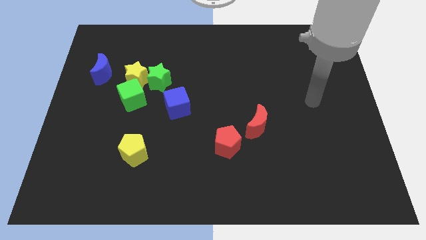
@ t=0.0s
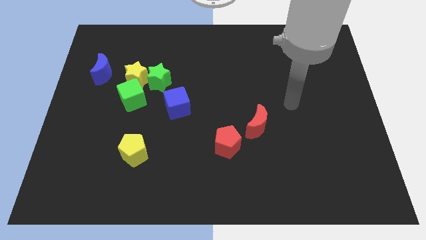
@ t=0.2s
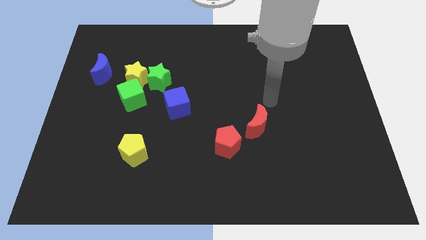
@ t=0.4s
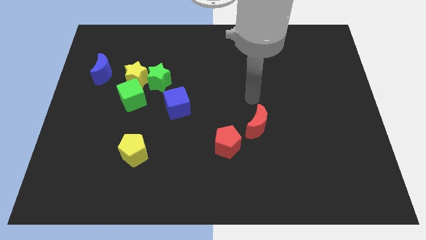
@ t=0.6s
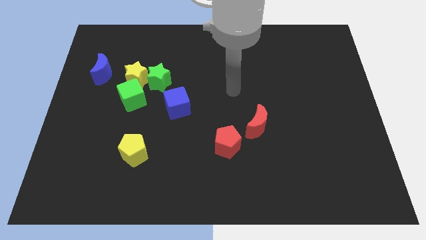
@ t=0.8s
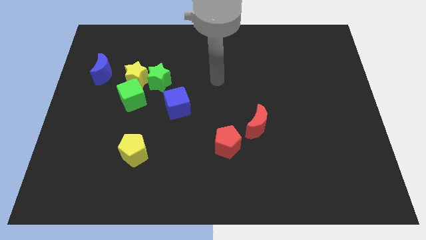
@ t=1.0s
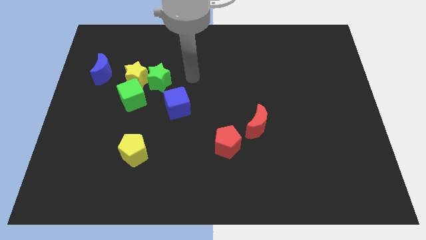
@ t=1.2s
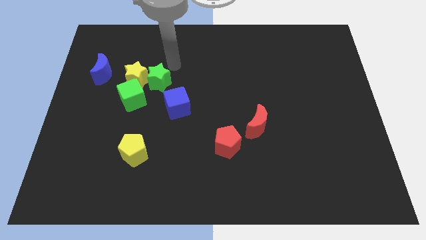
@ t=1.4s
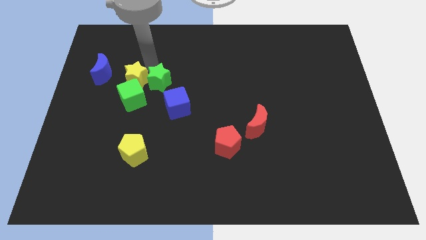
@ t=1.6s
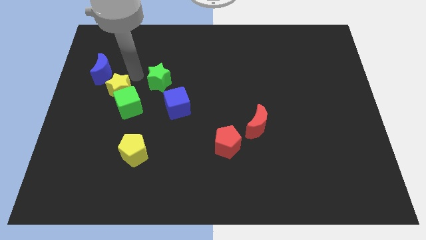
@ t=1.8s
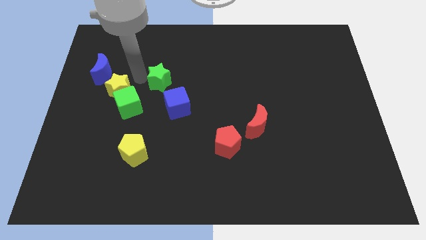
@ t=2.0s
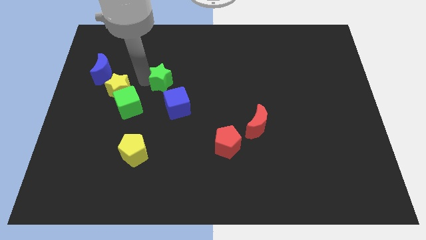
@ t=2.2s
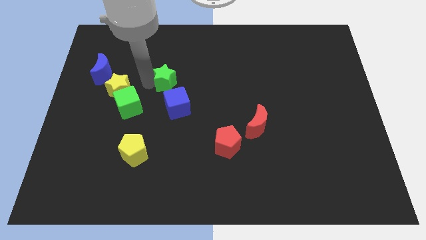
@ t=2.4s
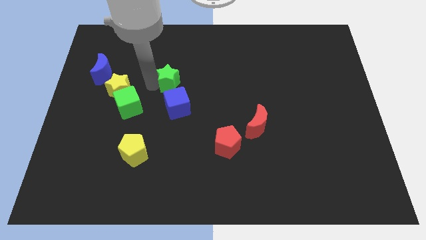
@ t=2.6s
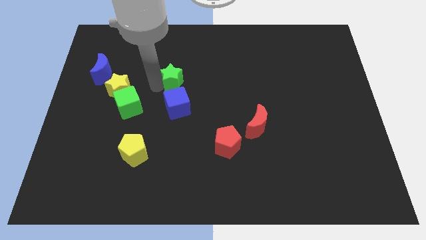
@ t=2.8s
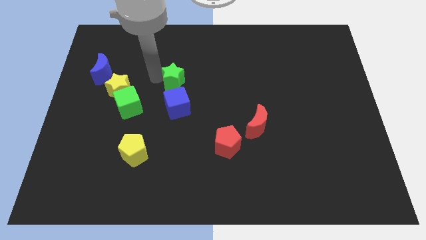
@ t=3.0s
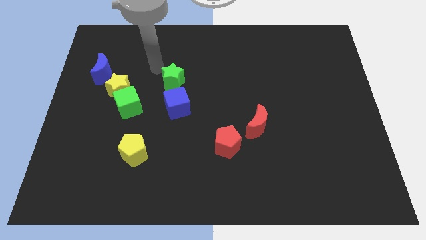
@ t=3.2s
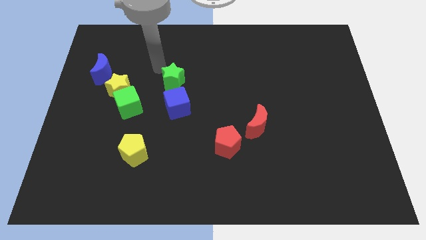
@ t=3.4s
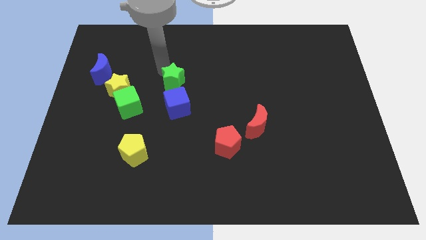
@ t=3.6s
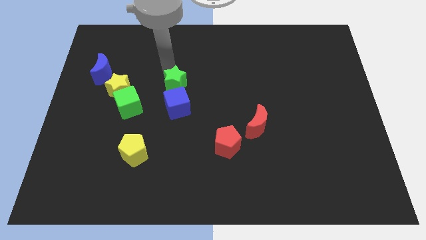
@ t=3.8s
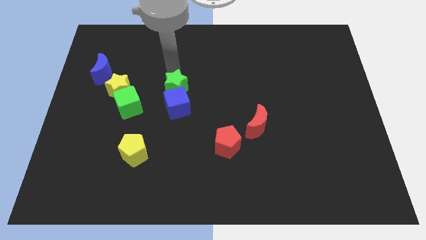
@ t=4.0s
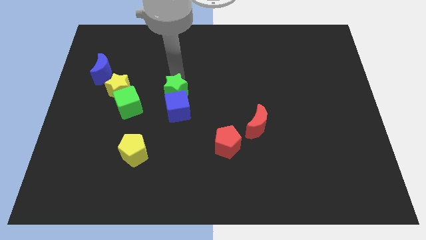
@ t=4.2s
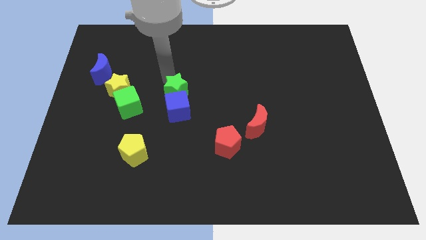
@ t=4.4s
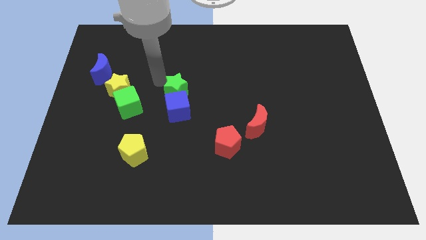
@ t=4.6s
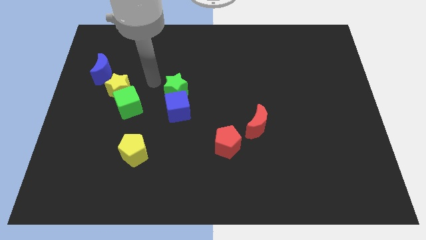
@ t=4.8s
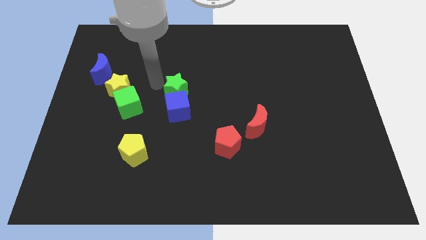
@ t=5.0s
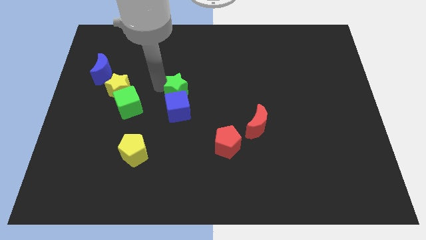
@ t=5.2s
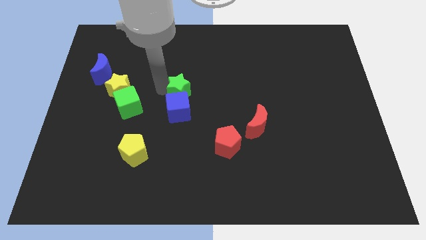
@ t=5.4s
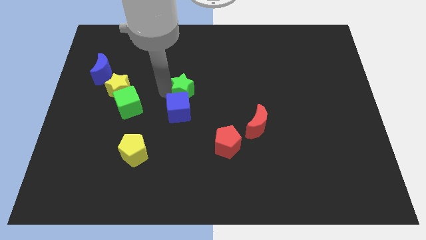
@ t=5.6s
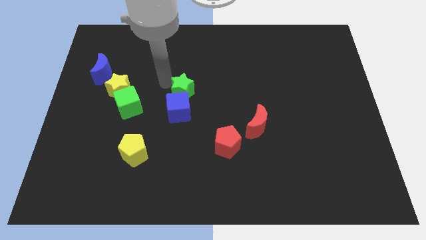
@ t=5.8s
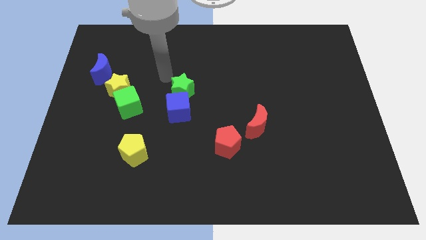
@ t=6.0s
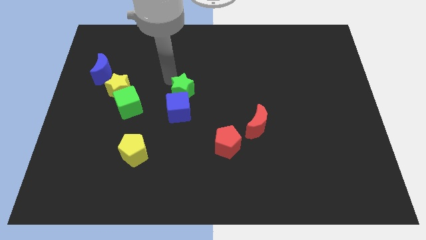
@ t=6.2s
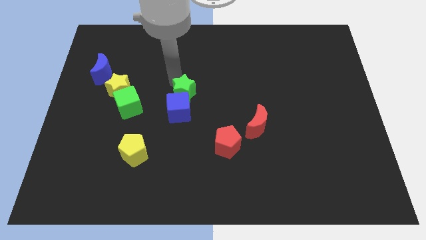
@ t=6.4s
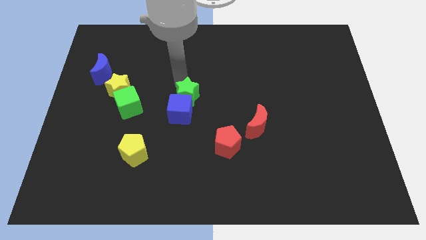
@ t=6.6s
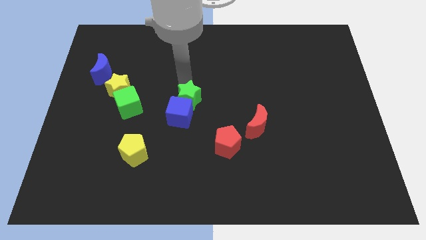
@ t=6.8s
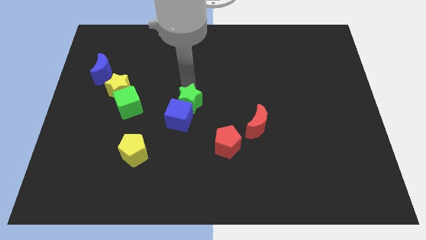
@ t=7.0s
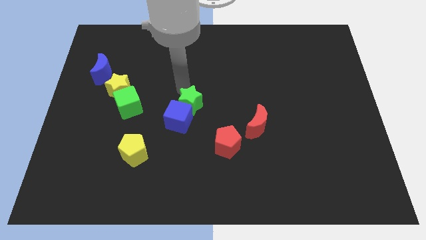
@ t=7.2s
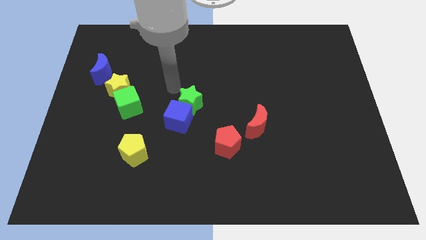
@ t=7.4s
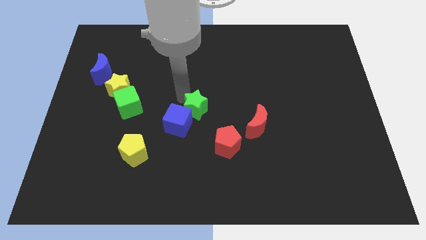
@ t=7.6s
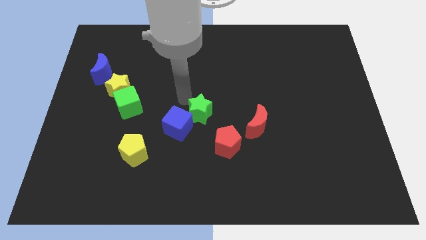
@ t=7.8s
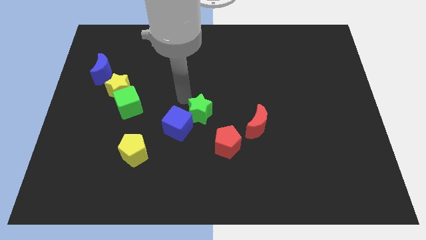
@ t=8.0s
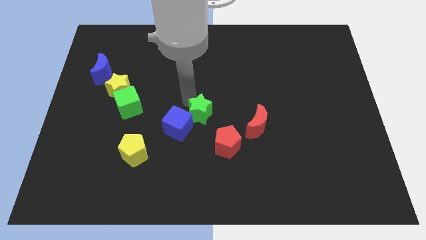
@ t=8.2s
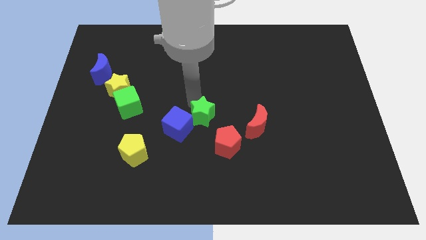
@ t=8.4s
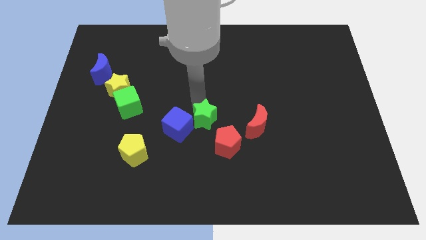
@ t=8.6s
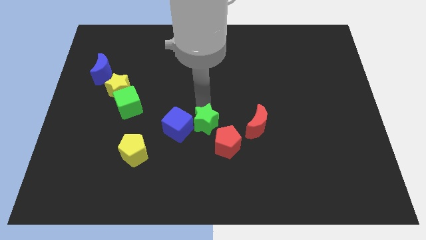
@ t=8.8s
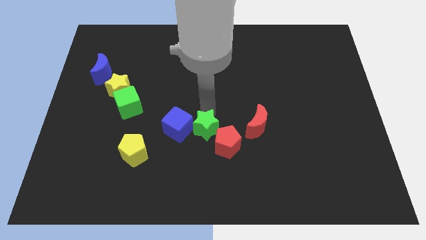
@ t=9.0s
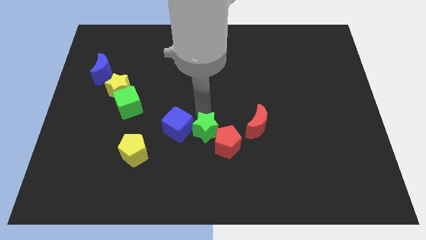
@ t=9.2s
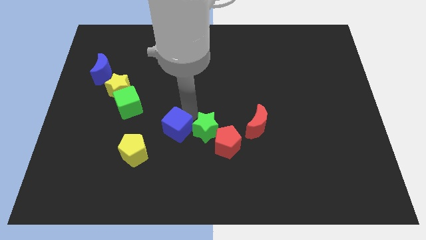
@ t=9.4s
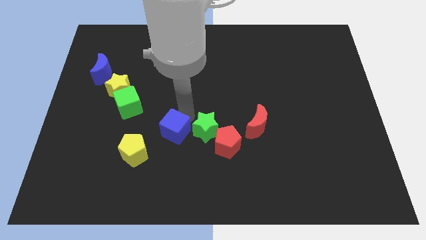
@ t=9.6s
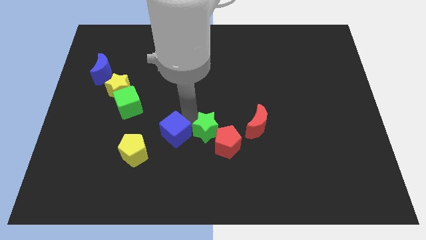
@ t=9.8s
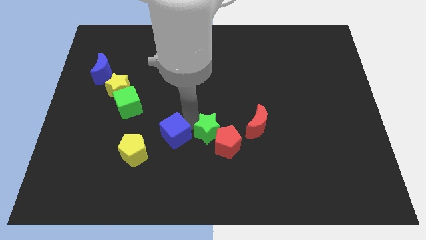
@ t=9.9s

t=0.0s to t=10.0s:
slide the green star next to the red pentagon

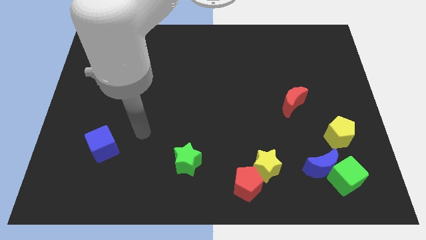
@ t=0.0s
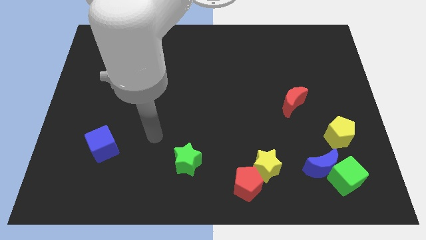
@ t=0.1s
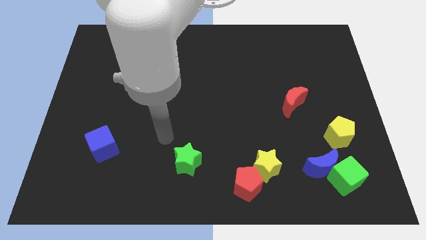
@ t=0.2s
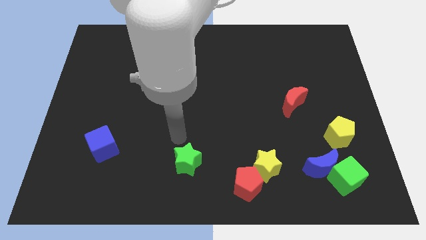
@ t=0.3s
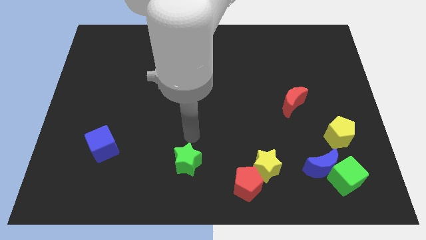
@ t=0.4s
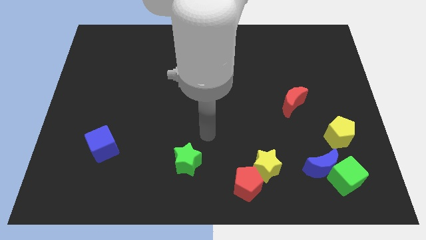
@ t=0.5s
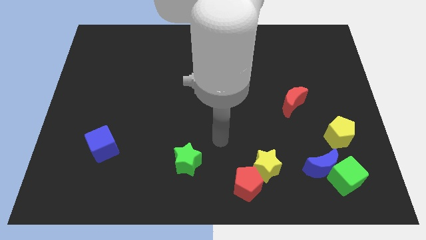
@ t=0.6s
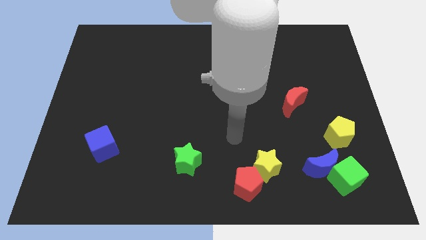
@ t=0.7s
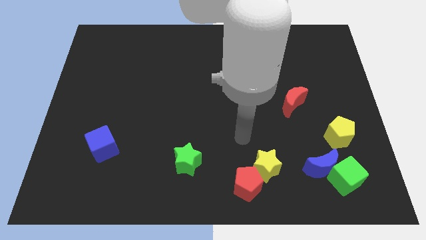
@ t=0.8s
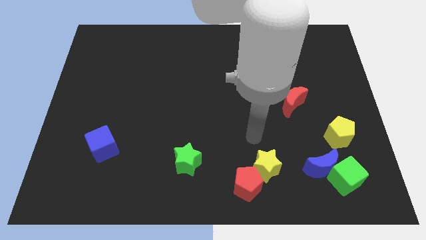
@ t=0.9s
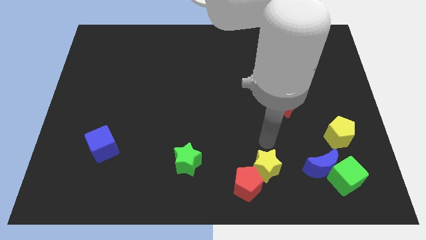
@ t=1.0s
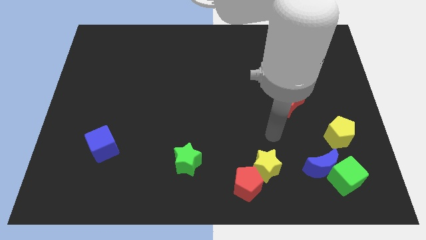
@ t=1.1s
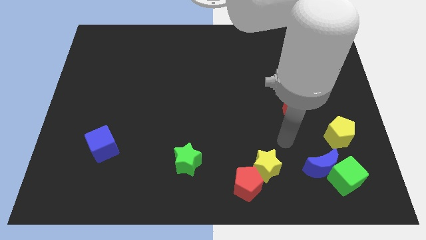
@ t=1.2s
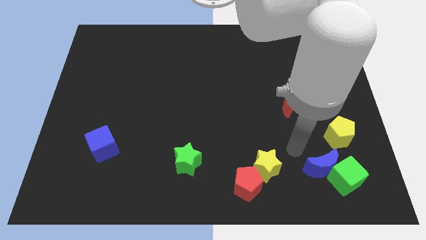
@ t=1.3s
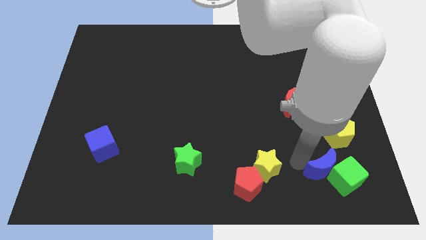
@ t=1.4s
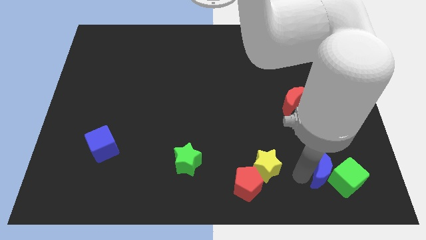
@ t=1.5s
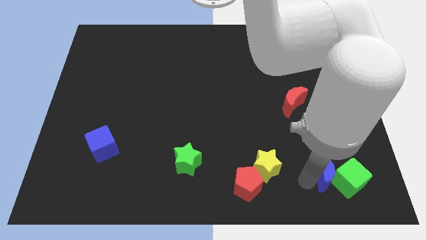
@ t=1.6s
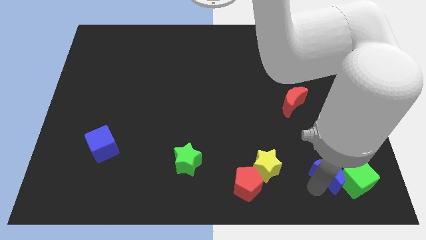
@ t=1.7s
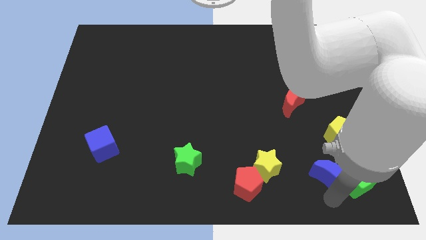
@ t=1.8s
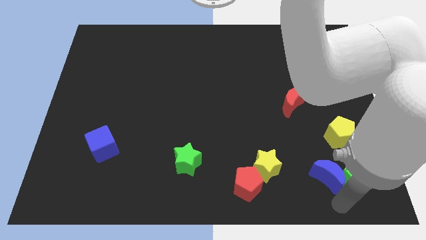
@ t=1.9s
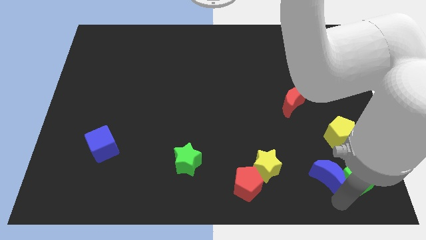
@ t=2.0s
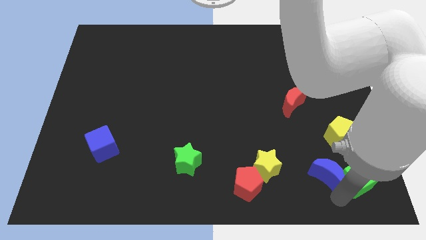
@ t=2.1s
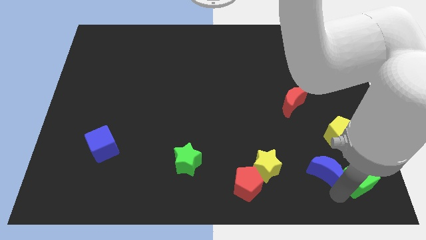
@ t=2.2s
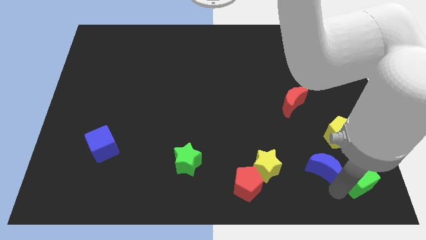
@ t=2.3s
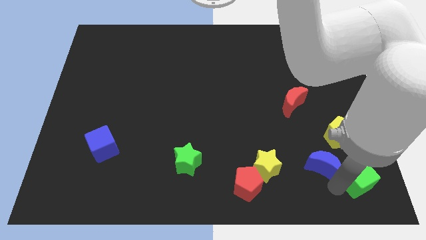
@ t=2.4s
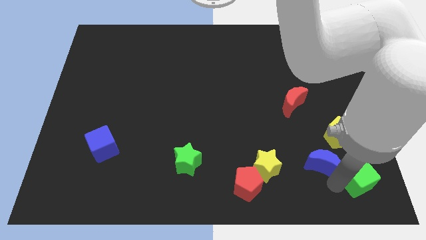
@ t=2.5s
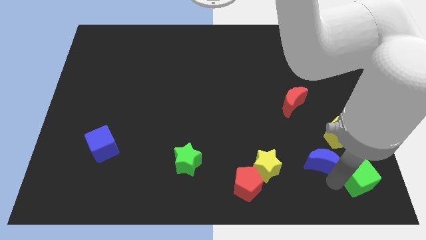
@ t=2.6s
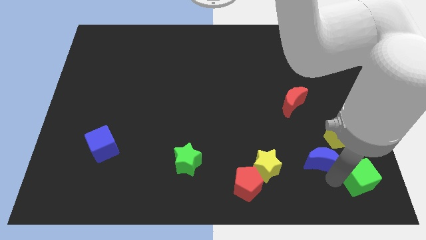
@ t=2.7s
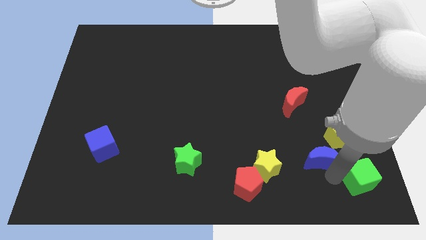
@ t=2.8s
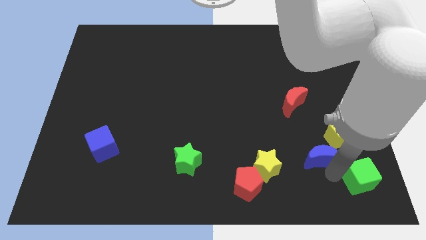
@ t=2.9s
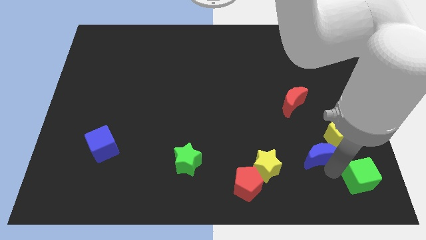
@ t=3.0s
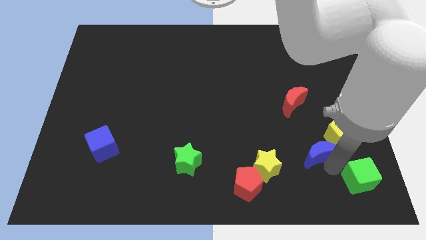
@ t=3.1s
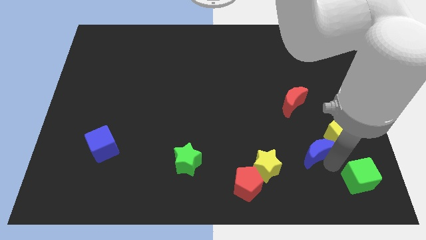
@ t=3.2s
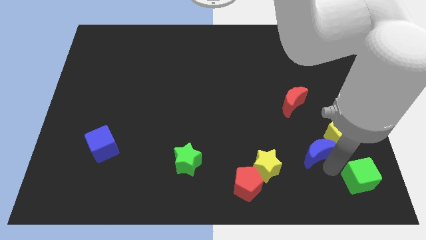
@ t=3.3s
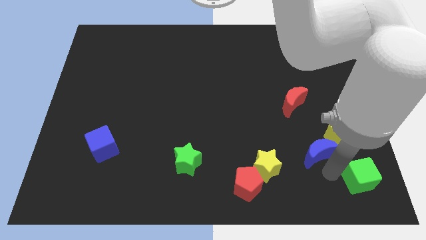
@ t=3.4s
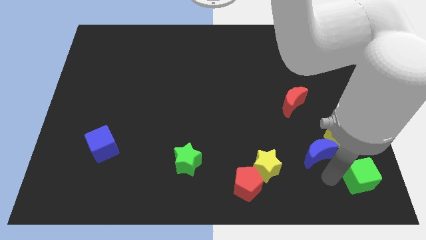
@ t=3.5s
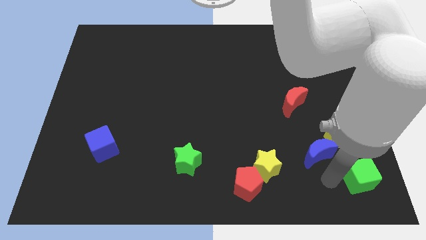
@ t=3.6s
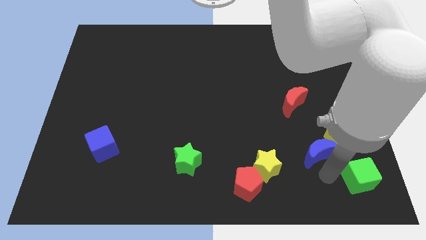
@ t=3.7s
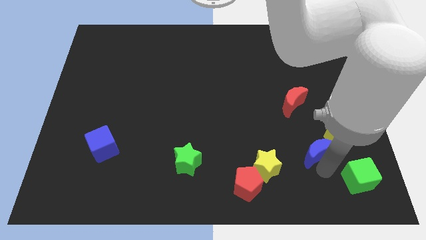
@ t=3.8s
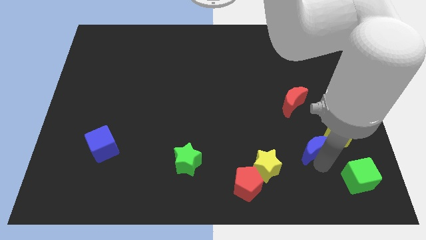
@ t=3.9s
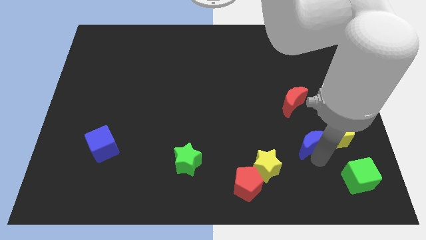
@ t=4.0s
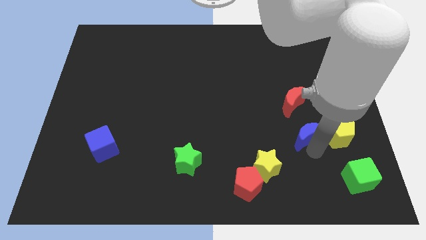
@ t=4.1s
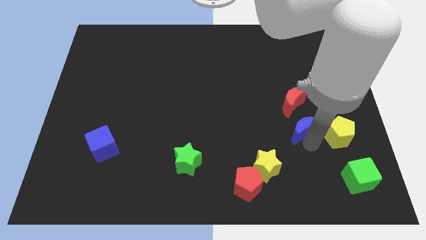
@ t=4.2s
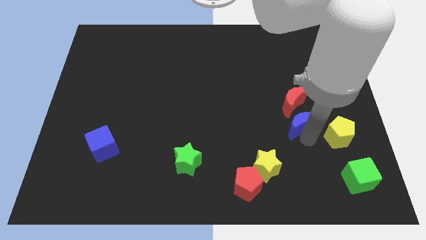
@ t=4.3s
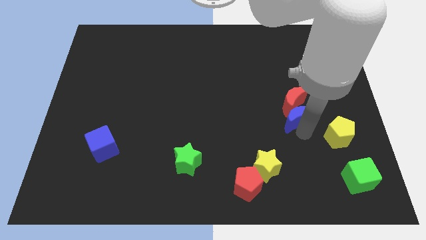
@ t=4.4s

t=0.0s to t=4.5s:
push the blue moon towards the red moon
